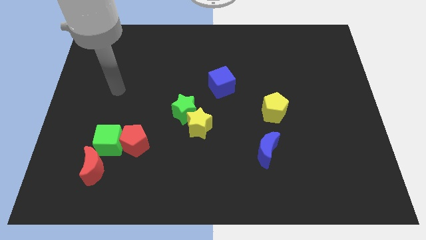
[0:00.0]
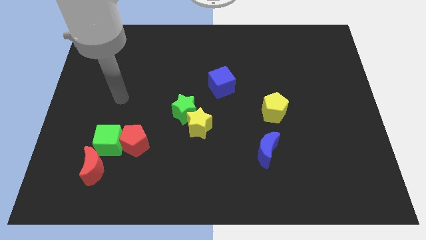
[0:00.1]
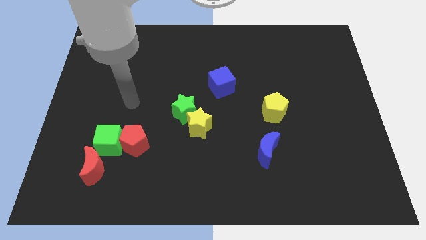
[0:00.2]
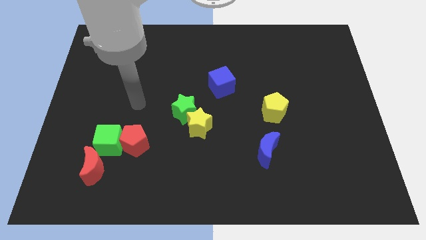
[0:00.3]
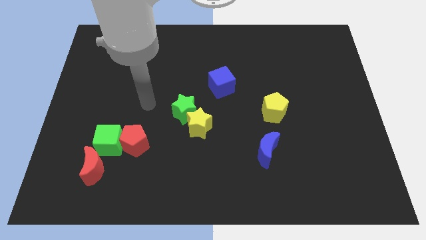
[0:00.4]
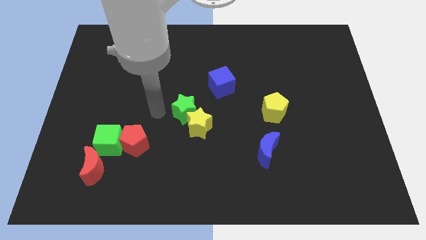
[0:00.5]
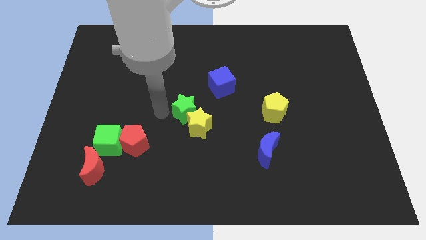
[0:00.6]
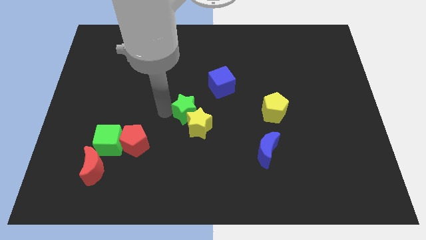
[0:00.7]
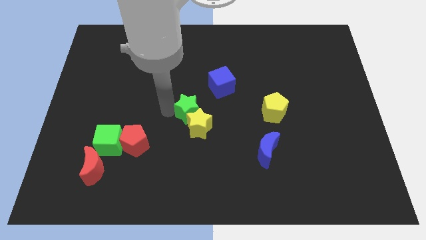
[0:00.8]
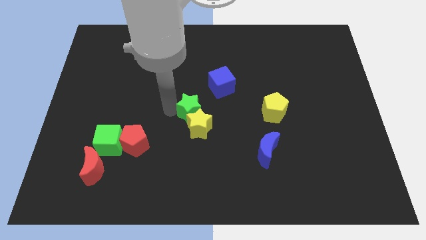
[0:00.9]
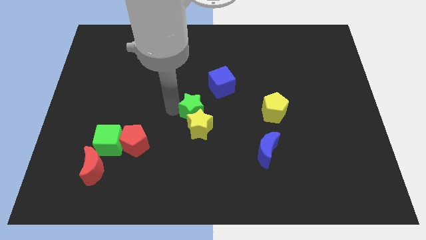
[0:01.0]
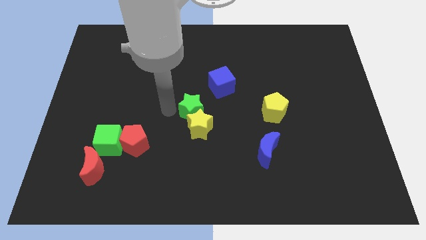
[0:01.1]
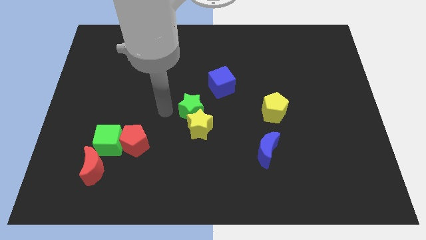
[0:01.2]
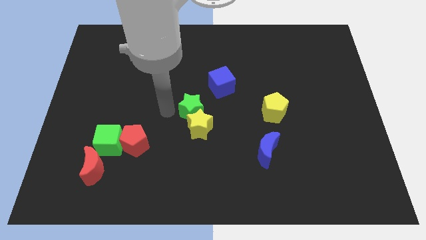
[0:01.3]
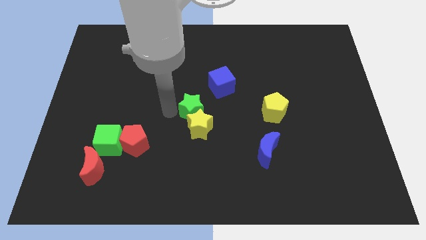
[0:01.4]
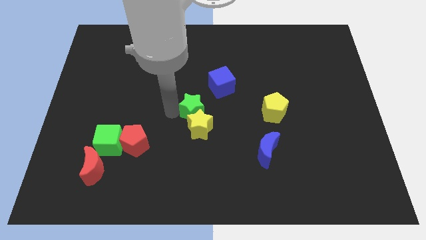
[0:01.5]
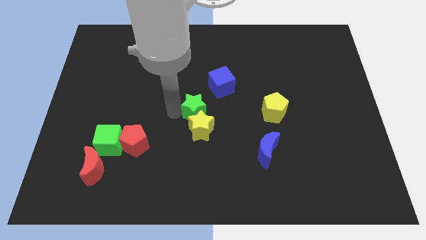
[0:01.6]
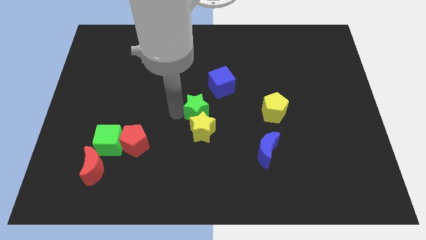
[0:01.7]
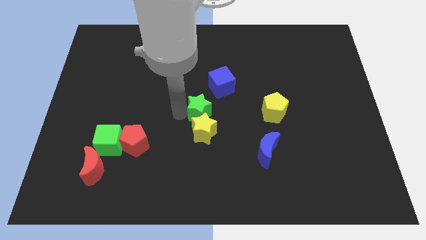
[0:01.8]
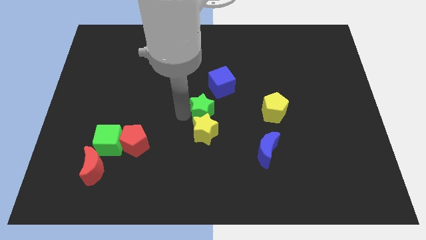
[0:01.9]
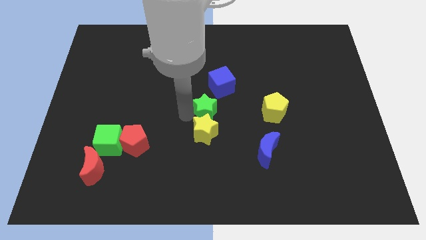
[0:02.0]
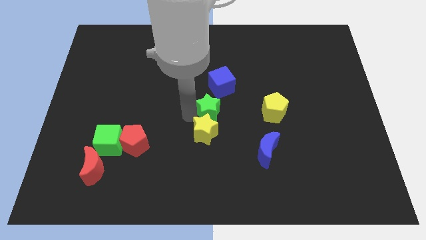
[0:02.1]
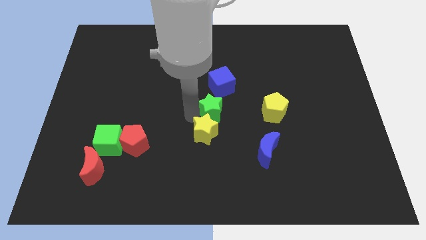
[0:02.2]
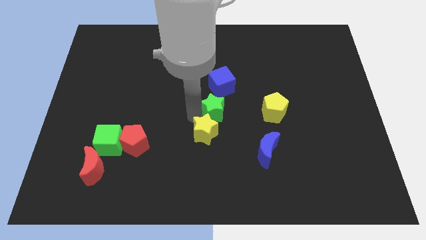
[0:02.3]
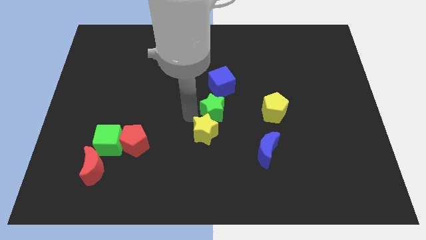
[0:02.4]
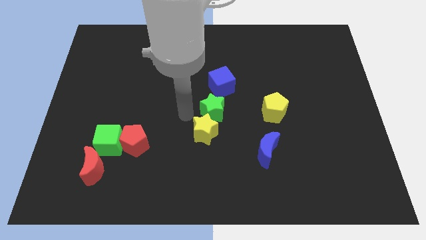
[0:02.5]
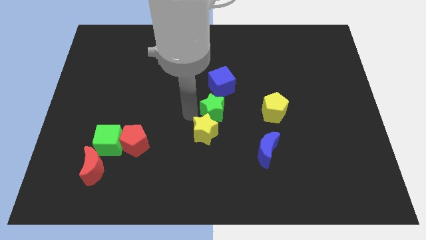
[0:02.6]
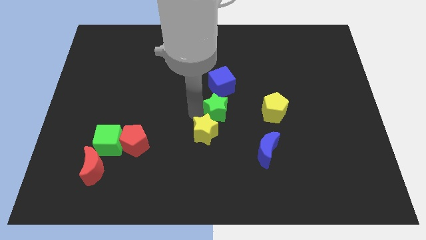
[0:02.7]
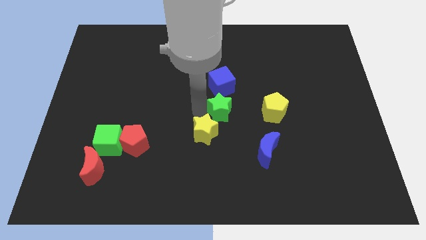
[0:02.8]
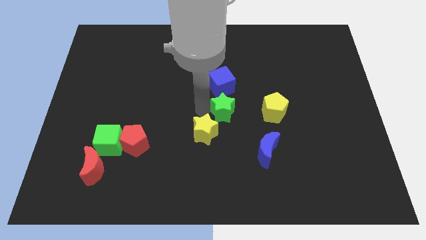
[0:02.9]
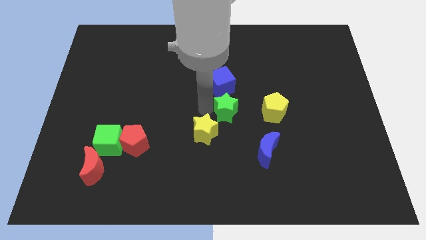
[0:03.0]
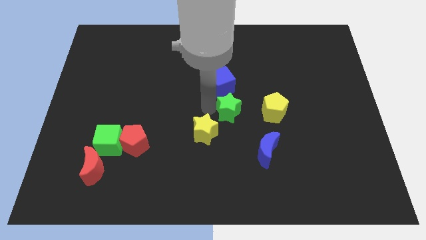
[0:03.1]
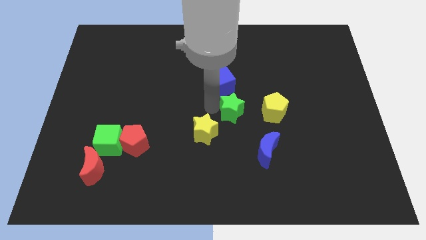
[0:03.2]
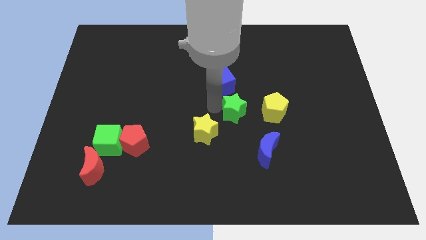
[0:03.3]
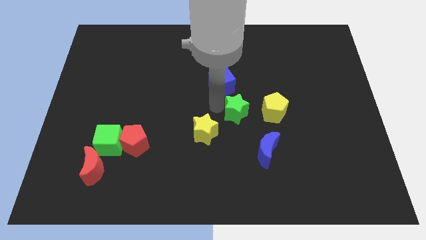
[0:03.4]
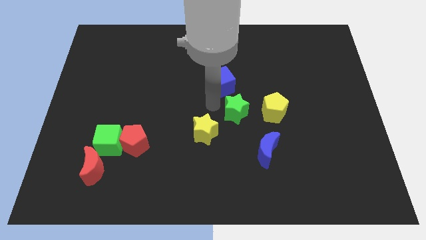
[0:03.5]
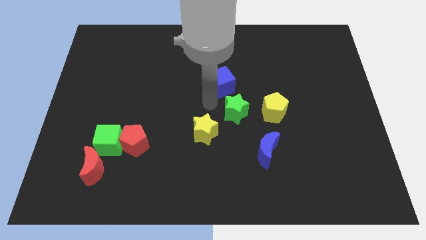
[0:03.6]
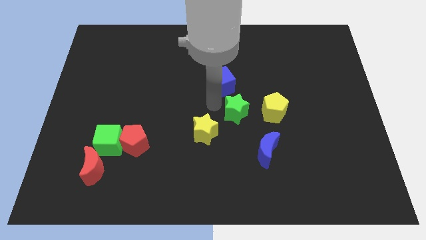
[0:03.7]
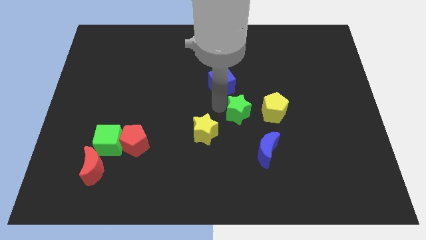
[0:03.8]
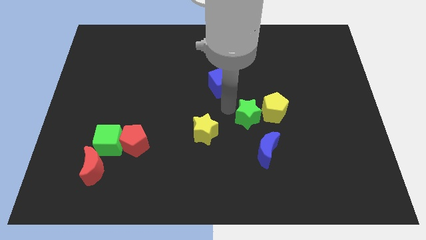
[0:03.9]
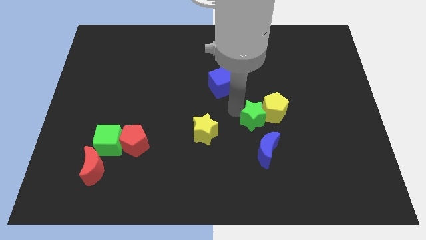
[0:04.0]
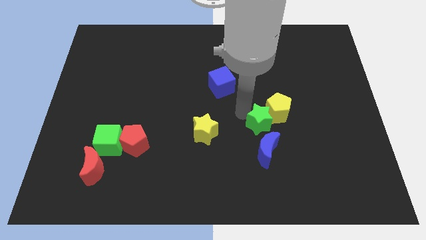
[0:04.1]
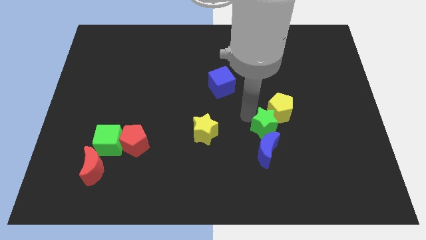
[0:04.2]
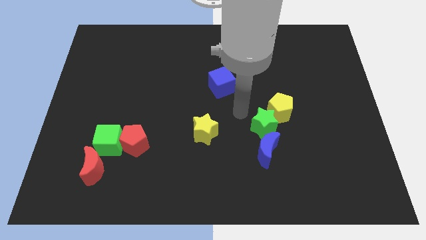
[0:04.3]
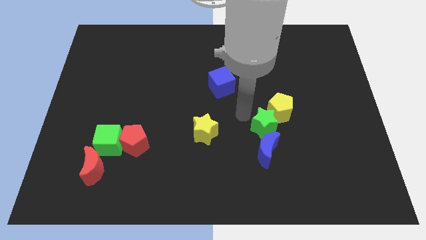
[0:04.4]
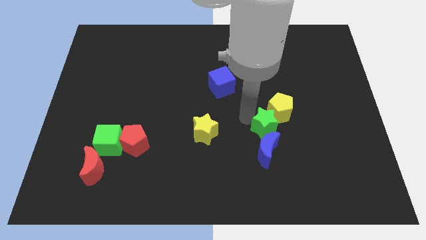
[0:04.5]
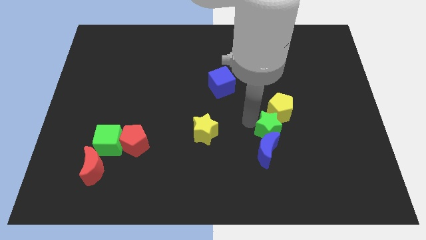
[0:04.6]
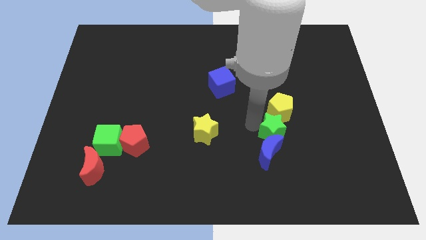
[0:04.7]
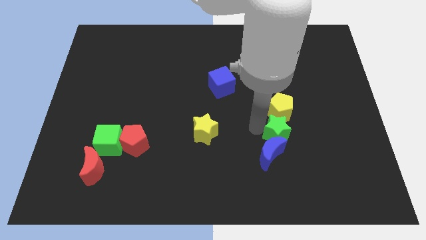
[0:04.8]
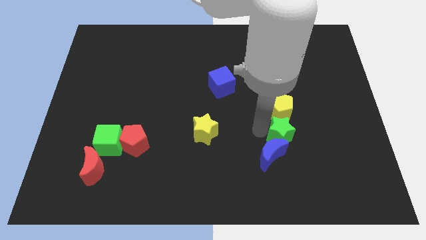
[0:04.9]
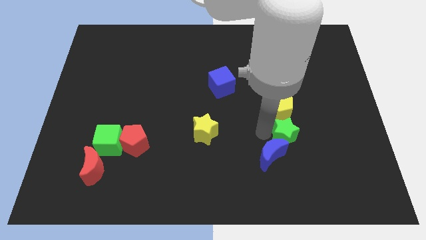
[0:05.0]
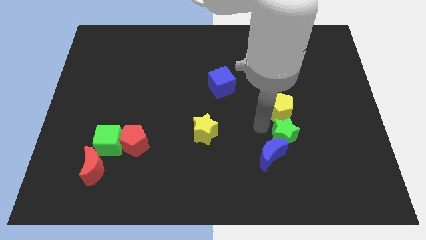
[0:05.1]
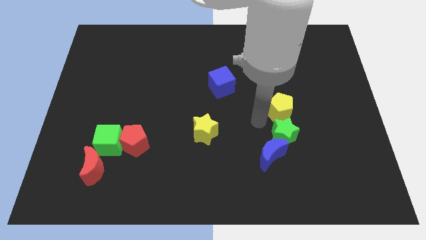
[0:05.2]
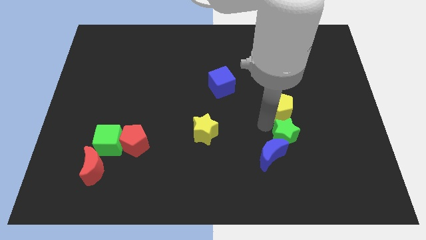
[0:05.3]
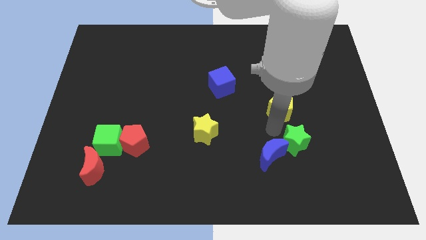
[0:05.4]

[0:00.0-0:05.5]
push the green star to the right of the blue moon

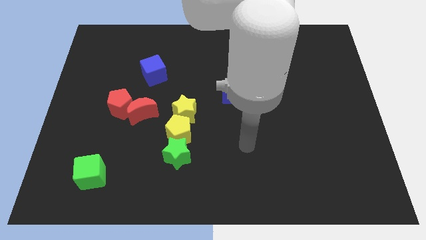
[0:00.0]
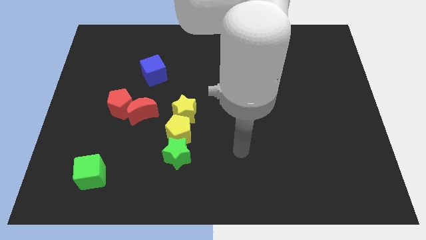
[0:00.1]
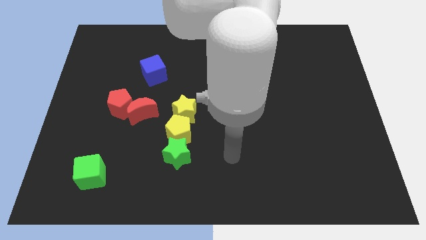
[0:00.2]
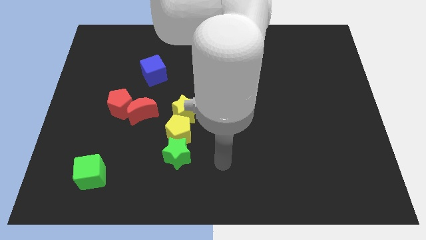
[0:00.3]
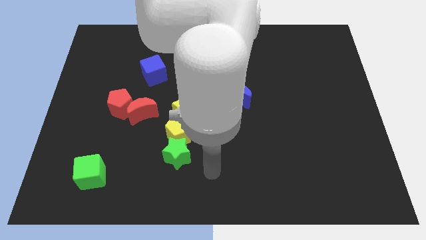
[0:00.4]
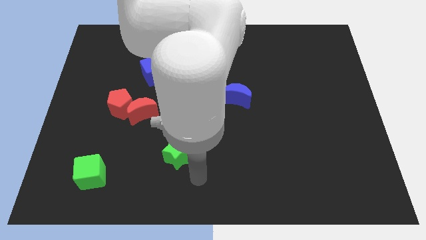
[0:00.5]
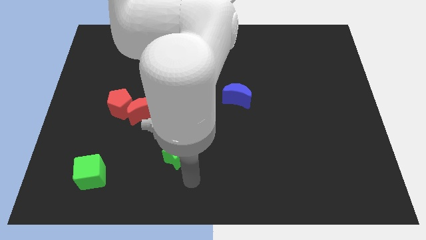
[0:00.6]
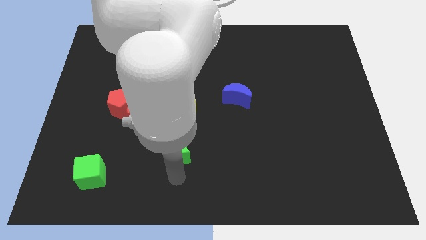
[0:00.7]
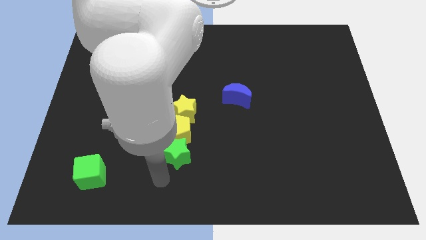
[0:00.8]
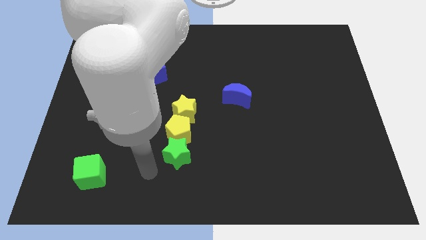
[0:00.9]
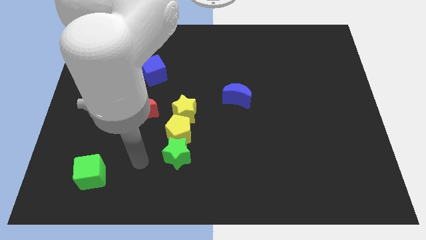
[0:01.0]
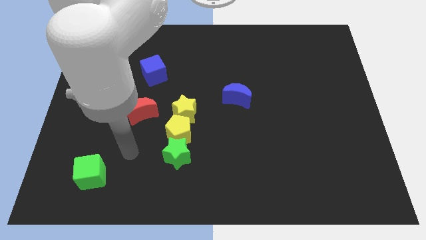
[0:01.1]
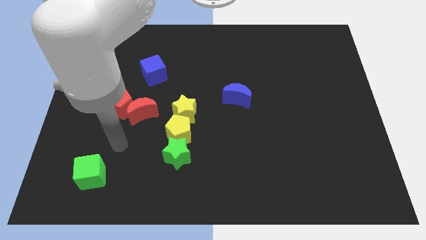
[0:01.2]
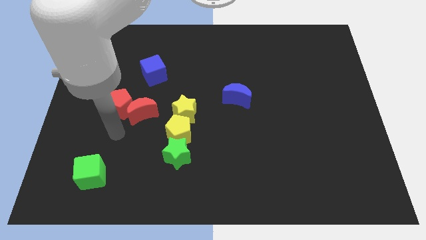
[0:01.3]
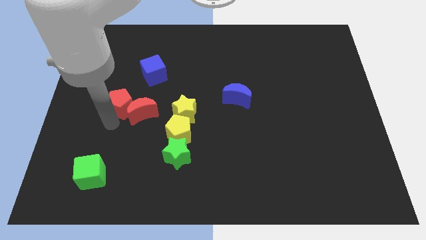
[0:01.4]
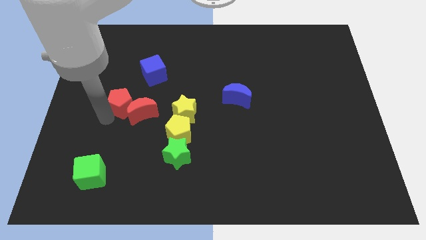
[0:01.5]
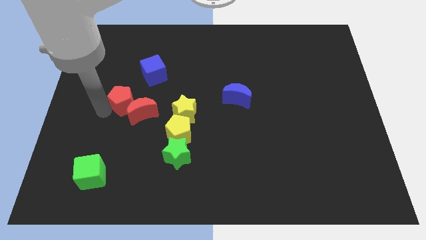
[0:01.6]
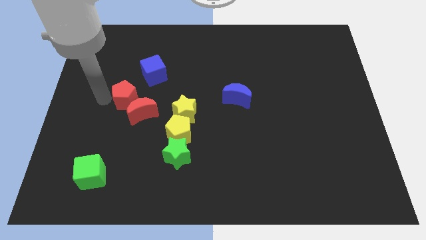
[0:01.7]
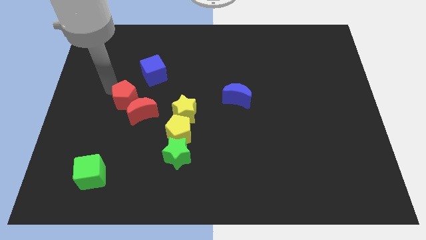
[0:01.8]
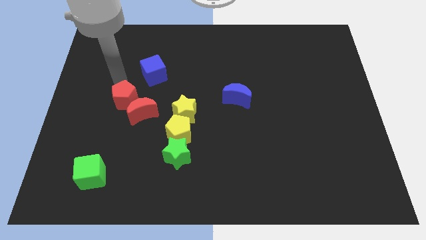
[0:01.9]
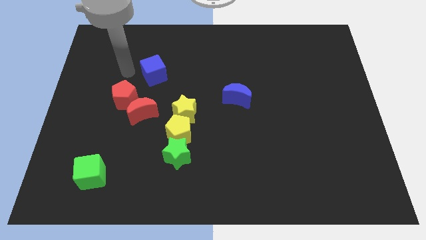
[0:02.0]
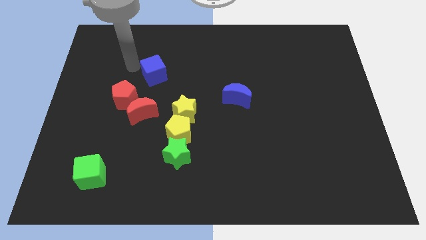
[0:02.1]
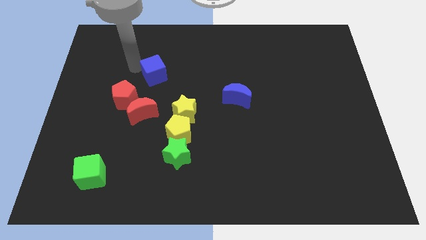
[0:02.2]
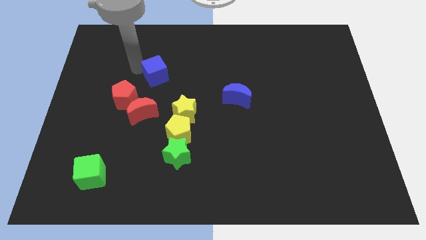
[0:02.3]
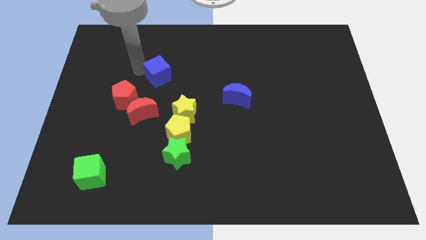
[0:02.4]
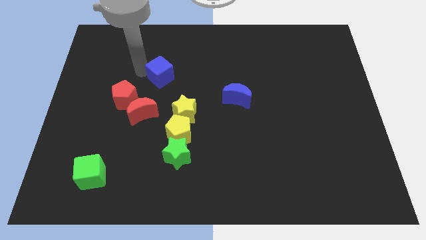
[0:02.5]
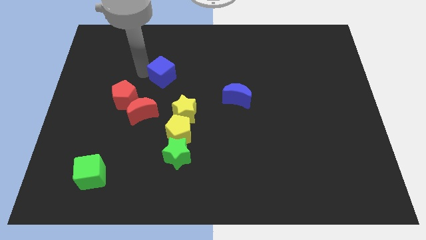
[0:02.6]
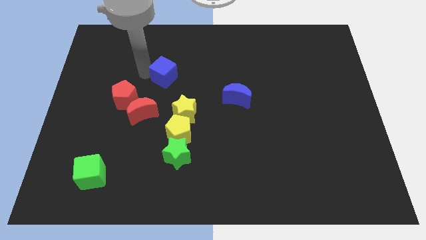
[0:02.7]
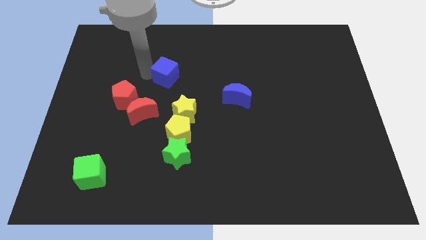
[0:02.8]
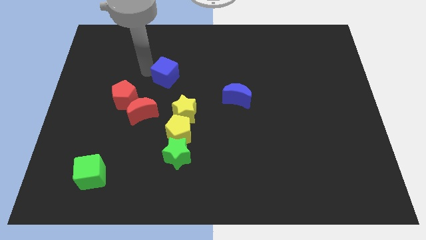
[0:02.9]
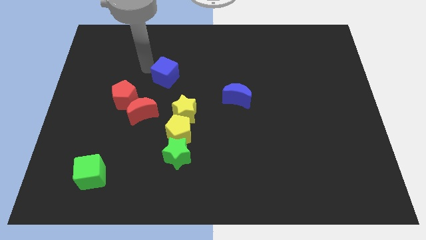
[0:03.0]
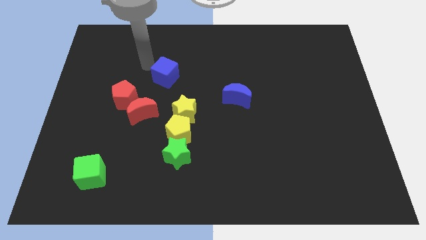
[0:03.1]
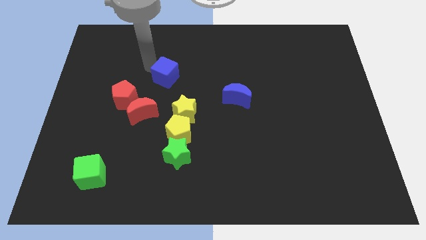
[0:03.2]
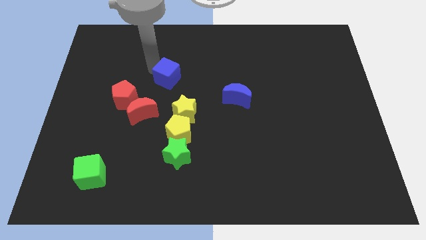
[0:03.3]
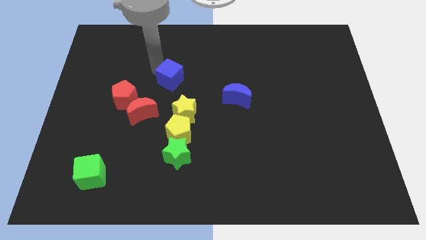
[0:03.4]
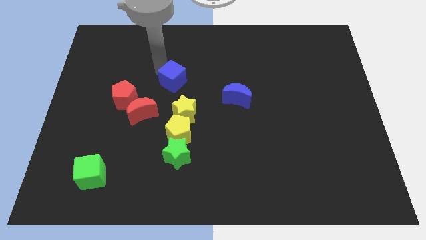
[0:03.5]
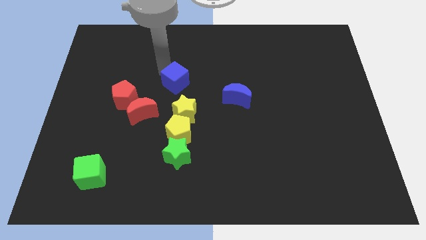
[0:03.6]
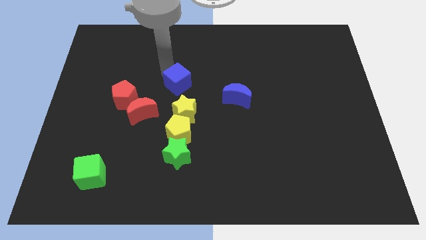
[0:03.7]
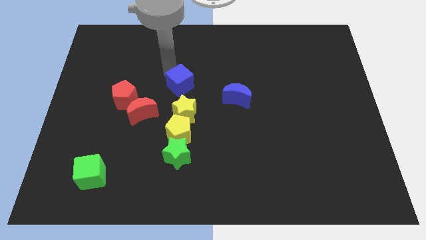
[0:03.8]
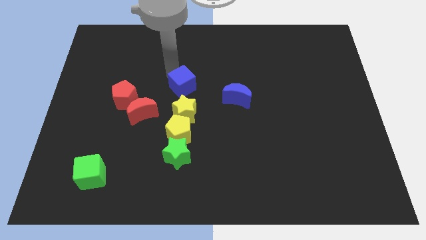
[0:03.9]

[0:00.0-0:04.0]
move the blue cube just left of the blue moon
